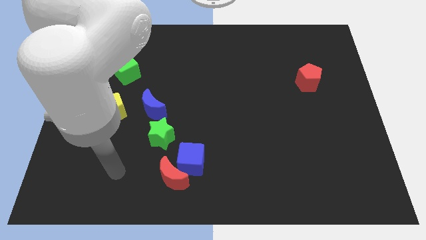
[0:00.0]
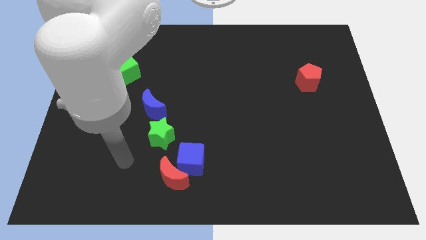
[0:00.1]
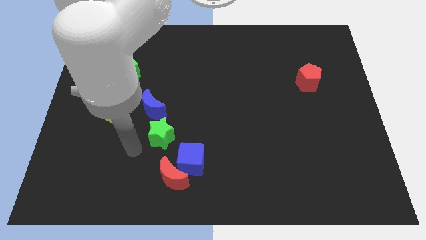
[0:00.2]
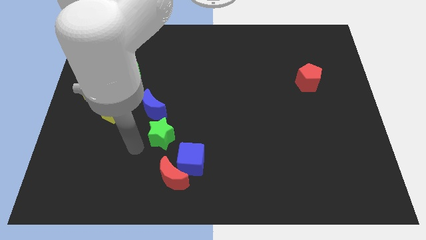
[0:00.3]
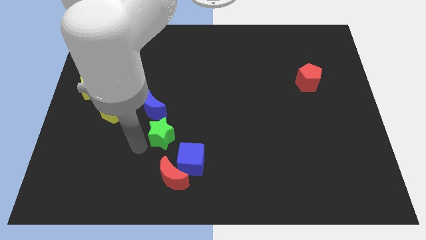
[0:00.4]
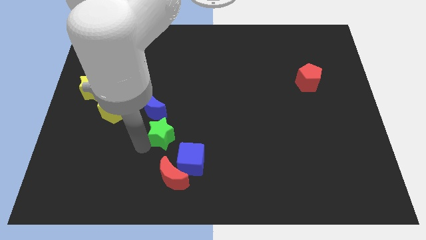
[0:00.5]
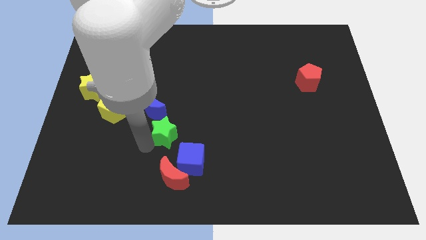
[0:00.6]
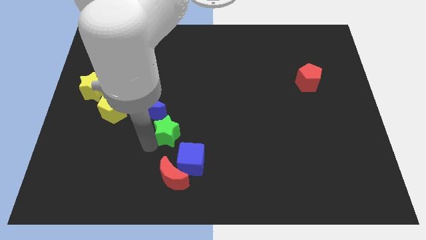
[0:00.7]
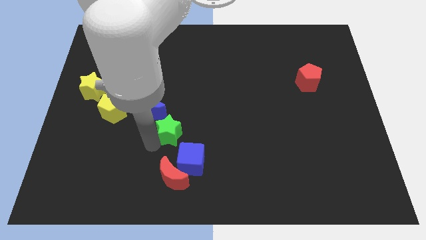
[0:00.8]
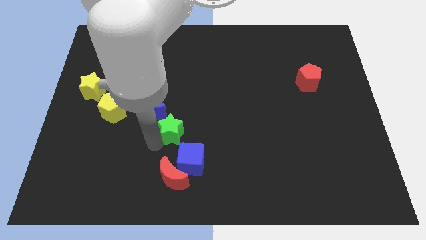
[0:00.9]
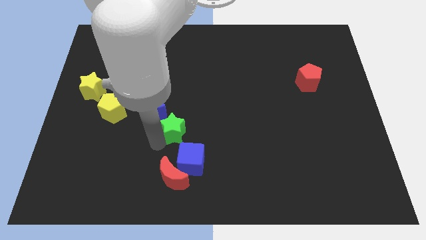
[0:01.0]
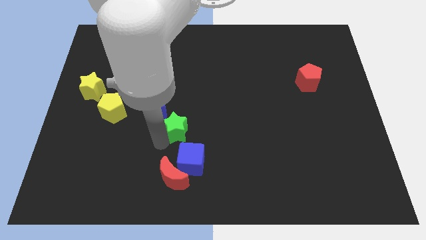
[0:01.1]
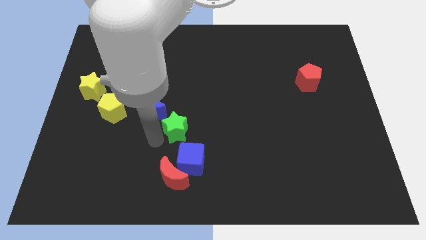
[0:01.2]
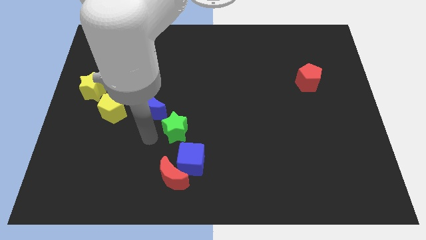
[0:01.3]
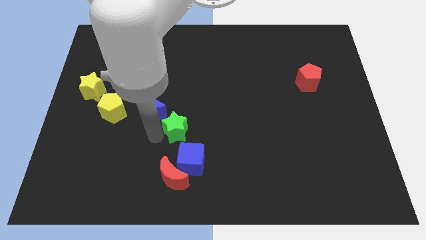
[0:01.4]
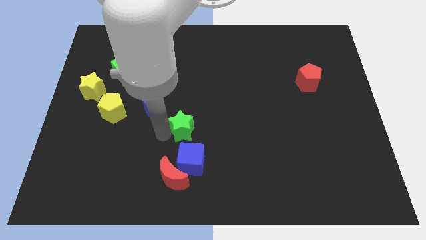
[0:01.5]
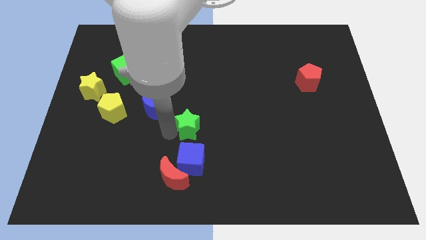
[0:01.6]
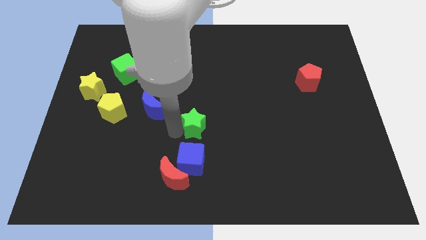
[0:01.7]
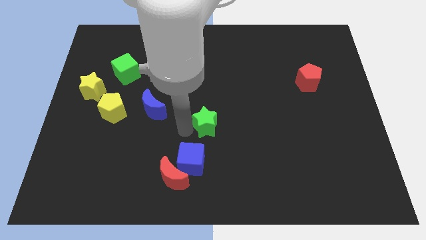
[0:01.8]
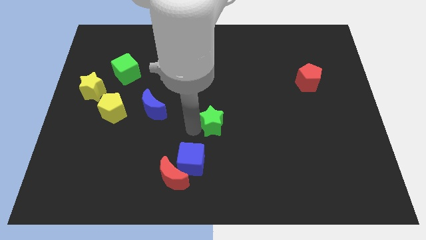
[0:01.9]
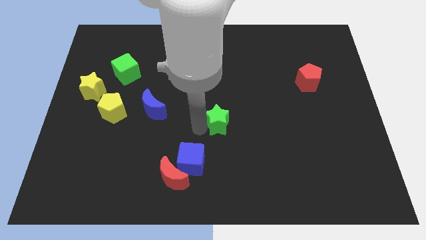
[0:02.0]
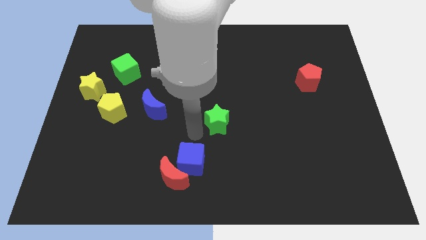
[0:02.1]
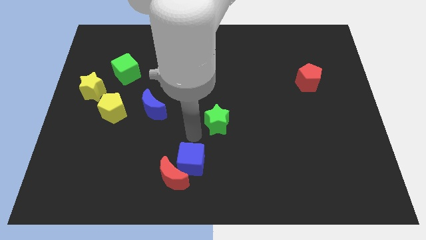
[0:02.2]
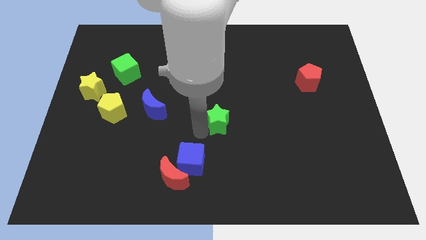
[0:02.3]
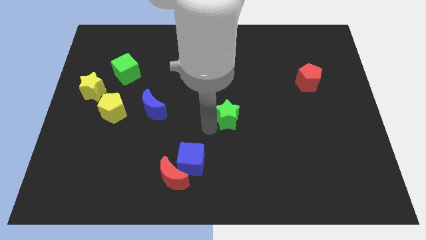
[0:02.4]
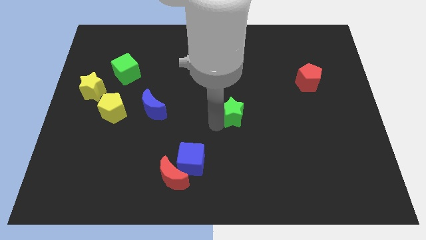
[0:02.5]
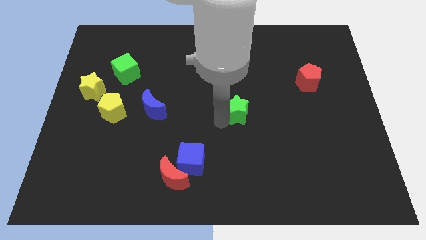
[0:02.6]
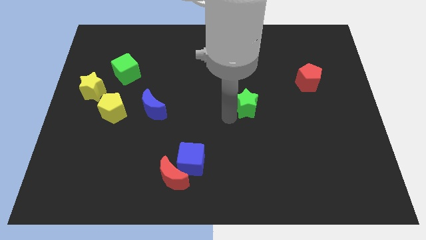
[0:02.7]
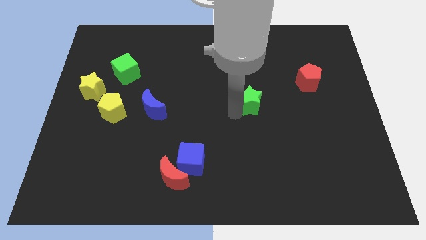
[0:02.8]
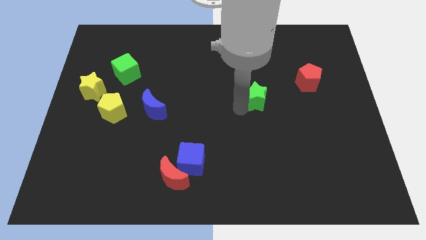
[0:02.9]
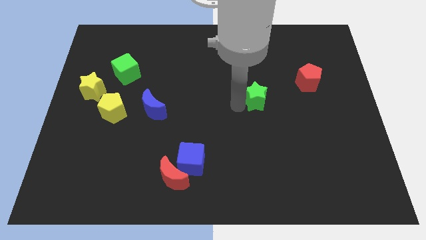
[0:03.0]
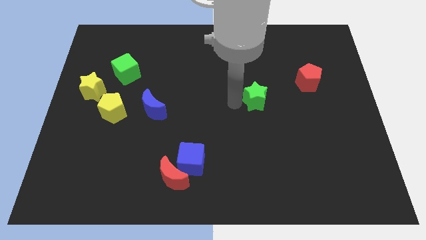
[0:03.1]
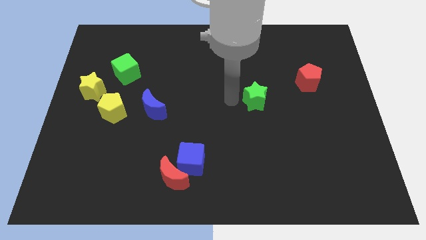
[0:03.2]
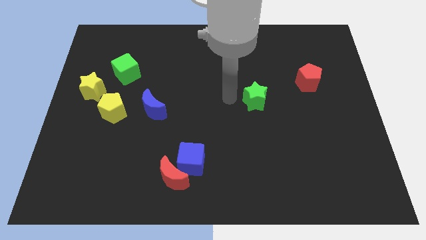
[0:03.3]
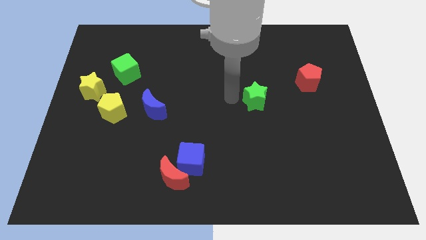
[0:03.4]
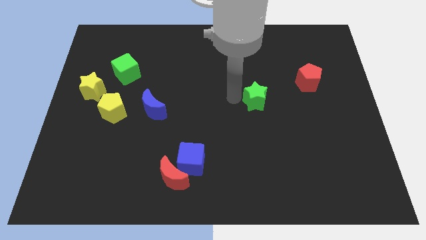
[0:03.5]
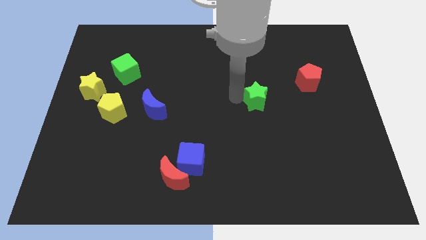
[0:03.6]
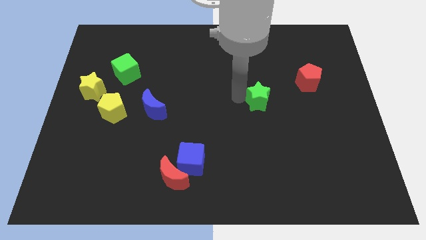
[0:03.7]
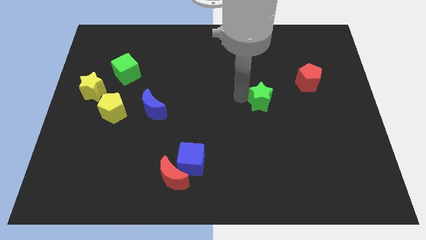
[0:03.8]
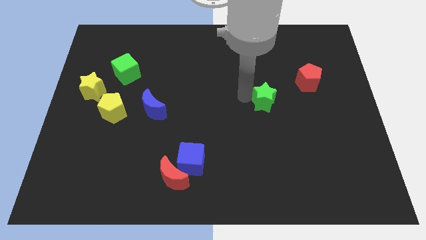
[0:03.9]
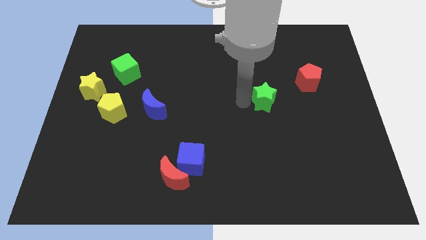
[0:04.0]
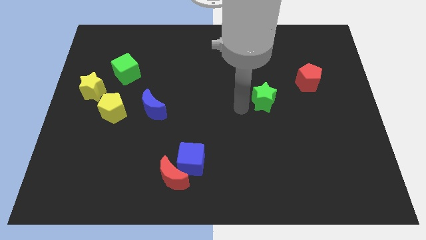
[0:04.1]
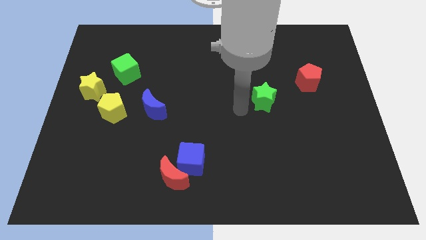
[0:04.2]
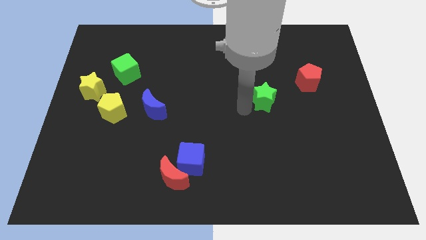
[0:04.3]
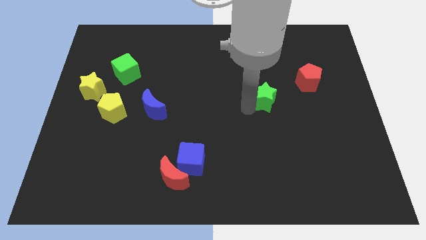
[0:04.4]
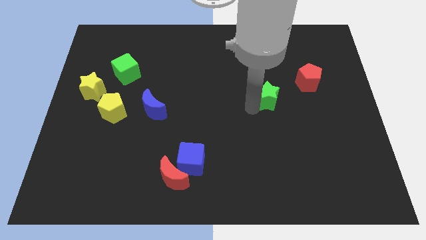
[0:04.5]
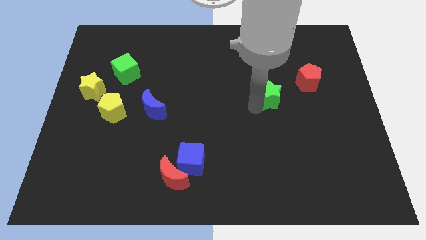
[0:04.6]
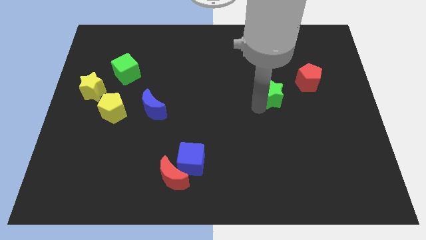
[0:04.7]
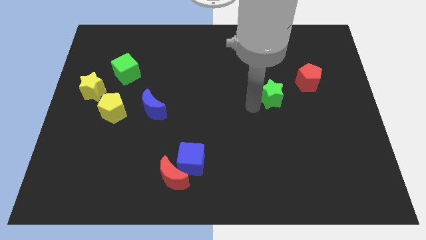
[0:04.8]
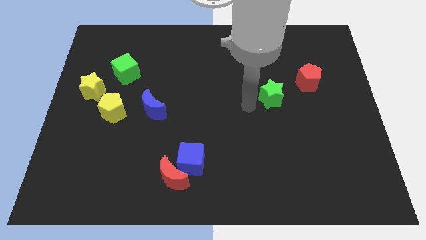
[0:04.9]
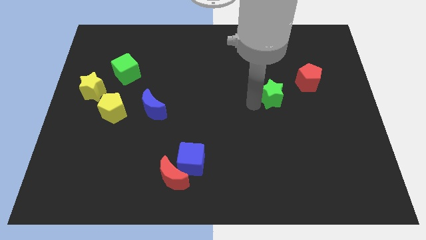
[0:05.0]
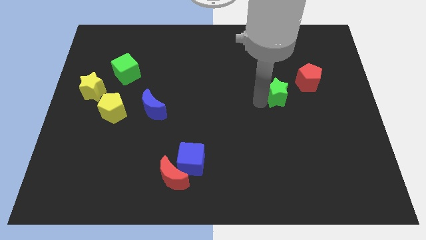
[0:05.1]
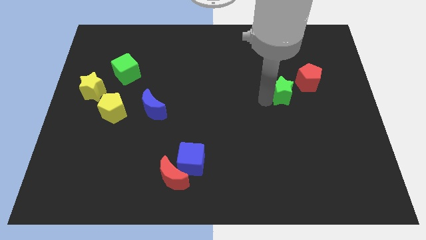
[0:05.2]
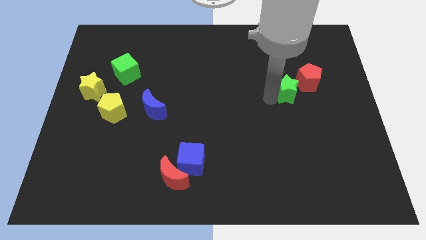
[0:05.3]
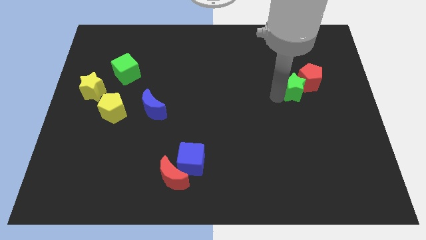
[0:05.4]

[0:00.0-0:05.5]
move the green star towards the red pentagon

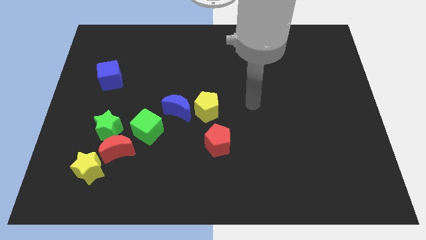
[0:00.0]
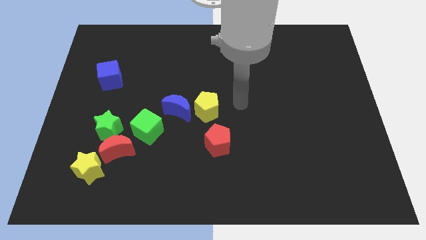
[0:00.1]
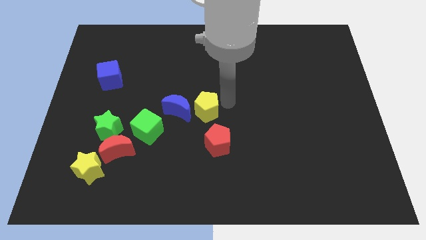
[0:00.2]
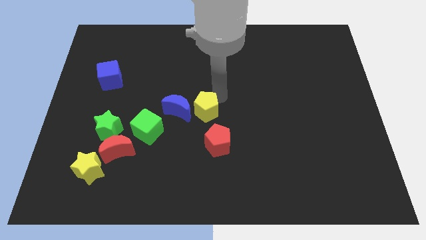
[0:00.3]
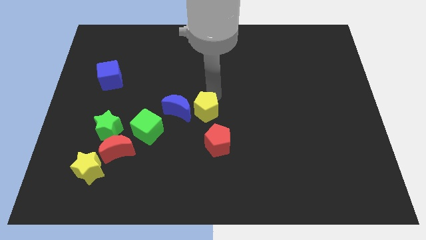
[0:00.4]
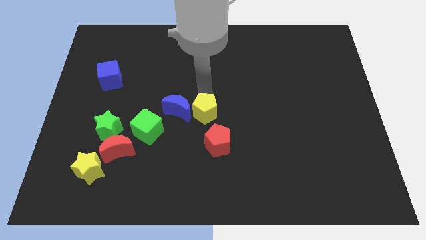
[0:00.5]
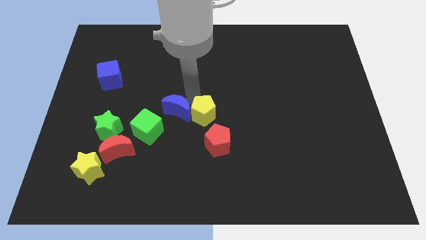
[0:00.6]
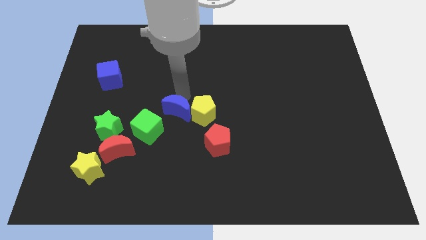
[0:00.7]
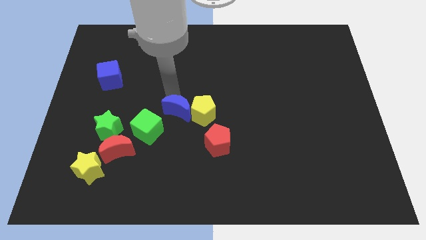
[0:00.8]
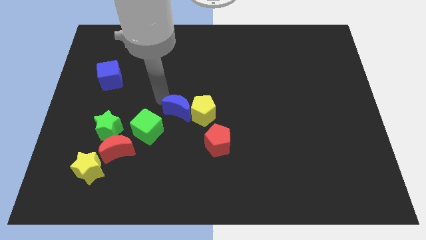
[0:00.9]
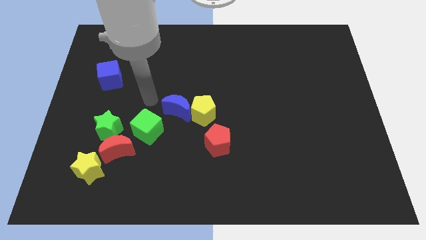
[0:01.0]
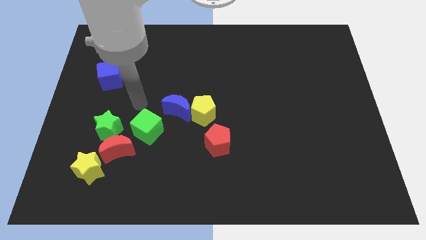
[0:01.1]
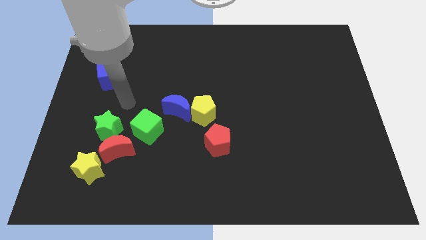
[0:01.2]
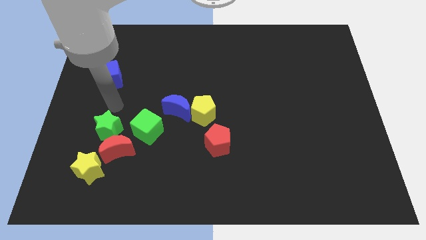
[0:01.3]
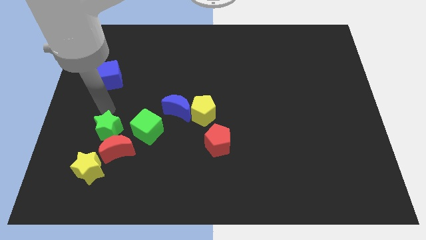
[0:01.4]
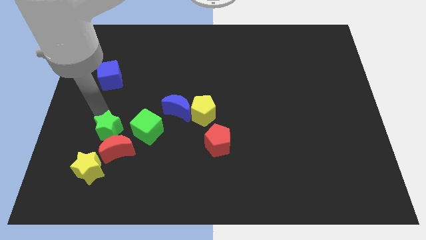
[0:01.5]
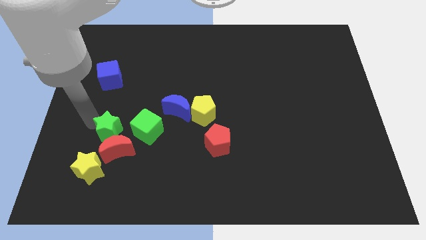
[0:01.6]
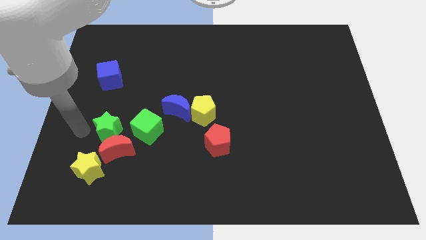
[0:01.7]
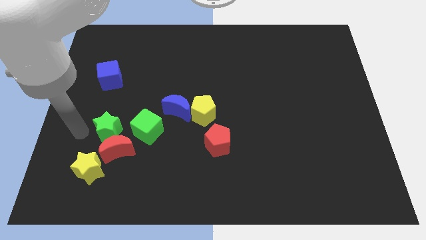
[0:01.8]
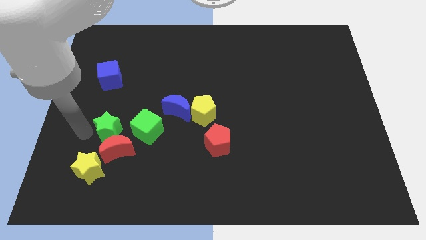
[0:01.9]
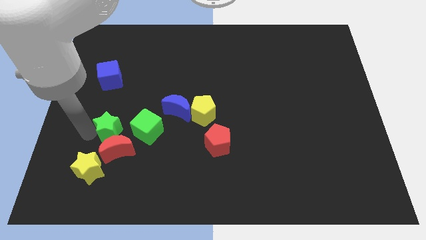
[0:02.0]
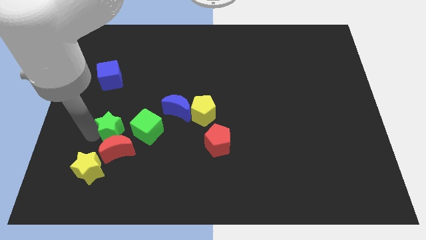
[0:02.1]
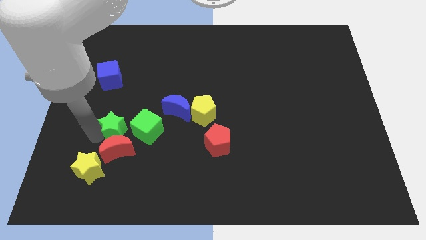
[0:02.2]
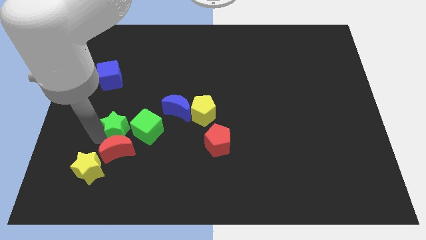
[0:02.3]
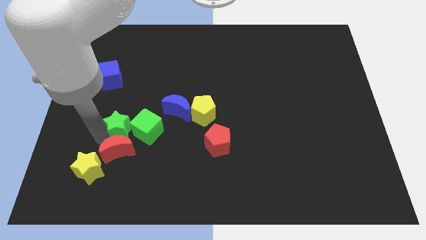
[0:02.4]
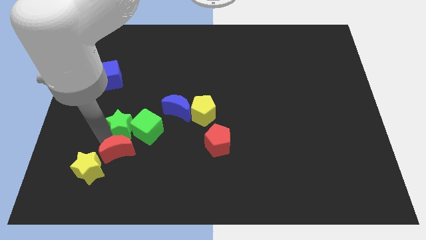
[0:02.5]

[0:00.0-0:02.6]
push the green star next to the green cube
